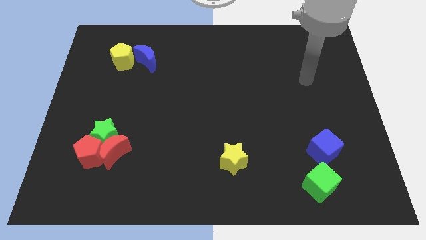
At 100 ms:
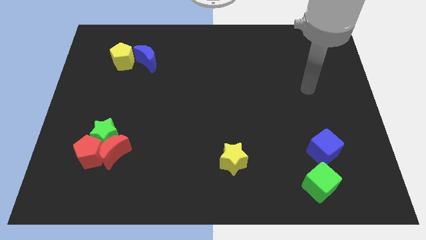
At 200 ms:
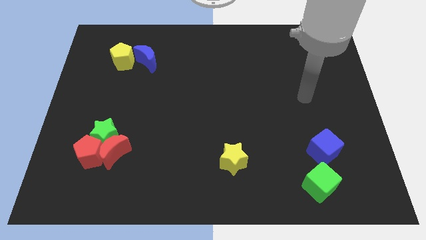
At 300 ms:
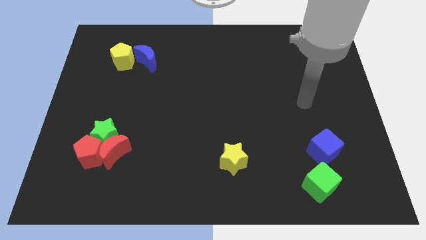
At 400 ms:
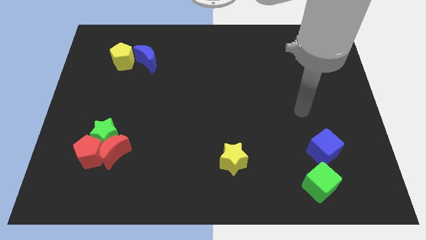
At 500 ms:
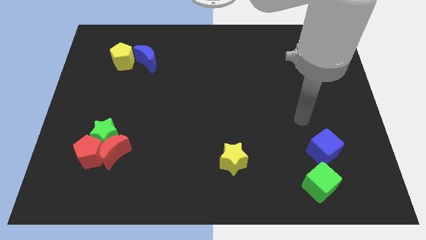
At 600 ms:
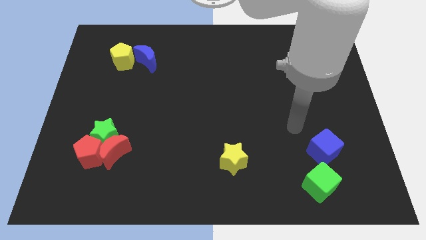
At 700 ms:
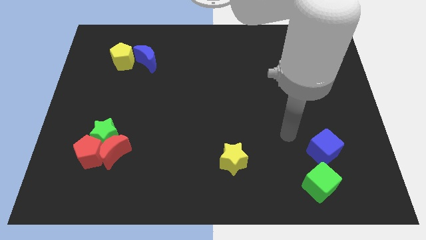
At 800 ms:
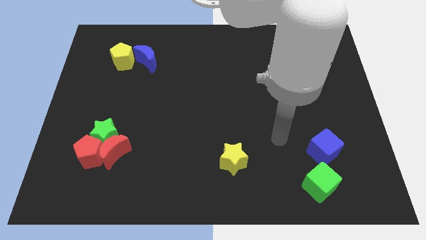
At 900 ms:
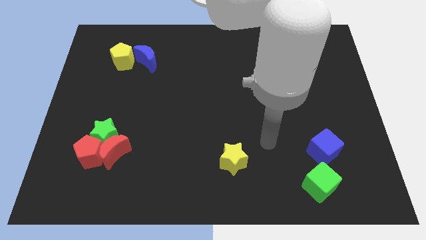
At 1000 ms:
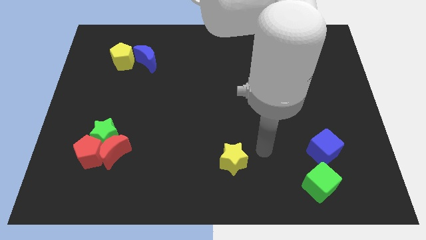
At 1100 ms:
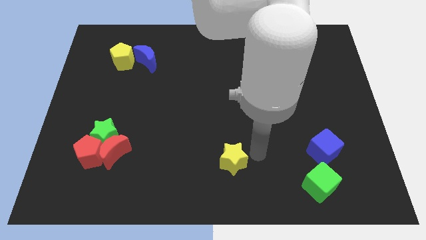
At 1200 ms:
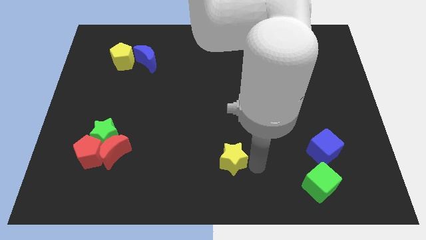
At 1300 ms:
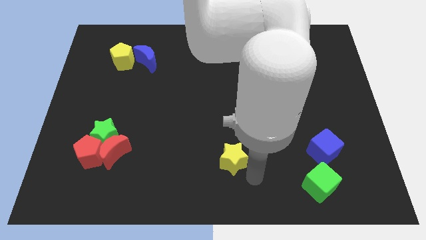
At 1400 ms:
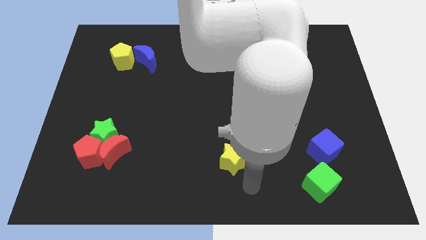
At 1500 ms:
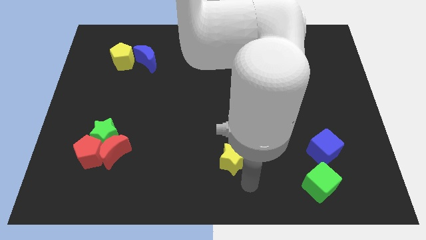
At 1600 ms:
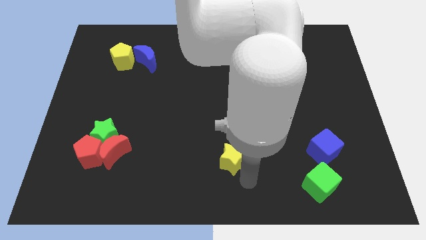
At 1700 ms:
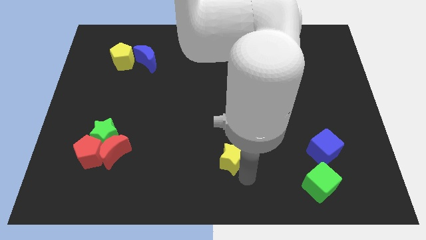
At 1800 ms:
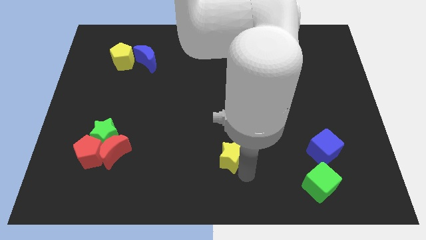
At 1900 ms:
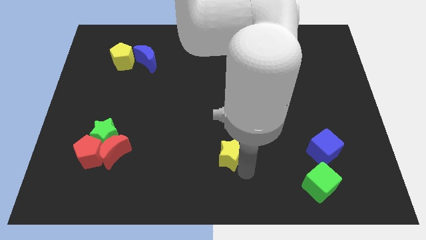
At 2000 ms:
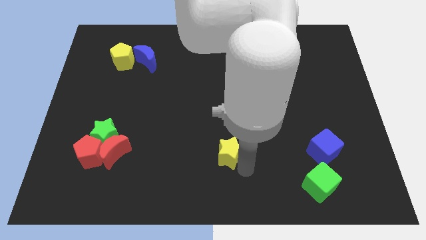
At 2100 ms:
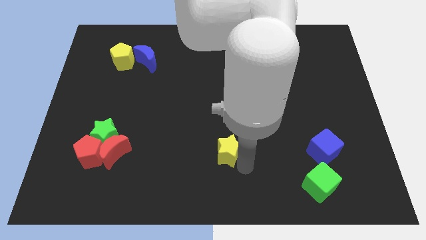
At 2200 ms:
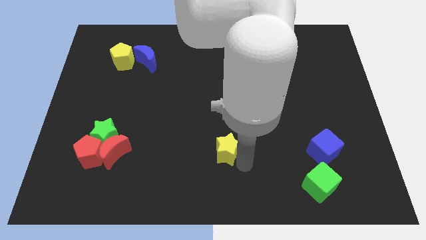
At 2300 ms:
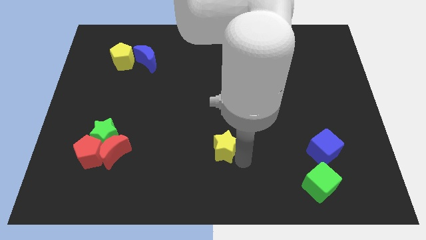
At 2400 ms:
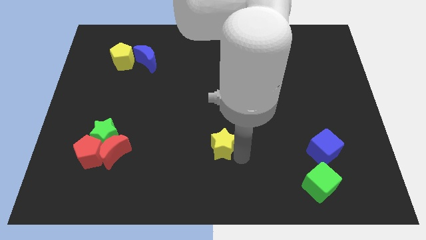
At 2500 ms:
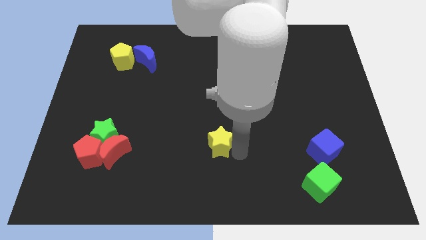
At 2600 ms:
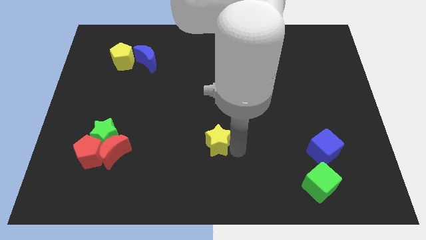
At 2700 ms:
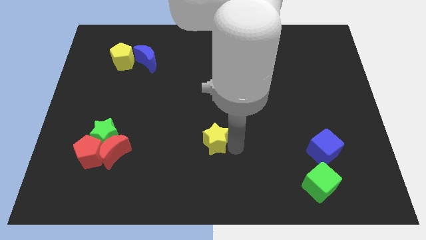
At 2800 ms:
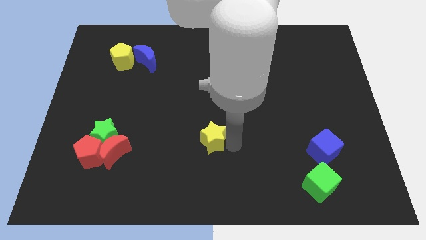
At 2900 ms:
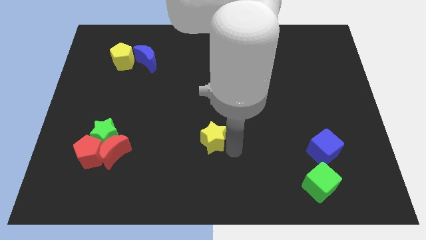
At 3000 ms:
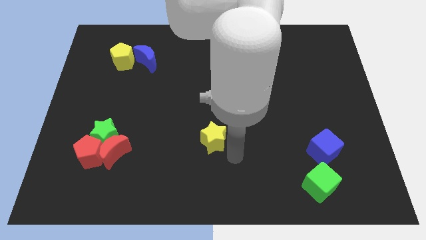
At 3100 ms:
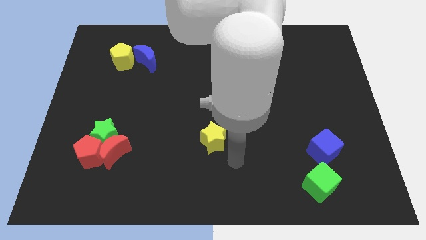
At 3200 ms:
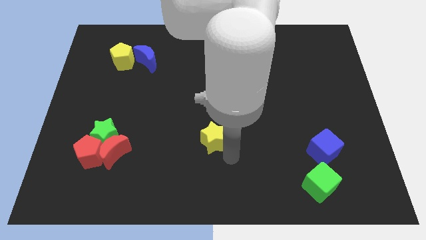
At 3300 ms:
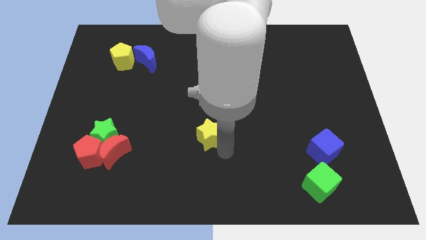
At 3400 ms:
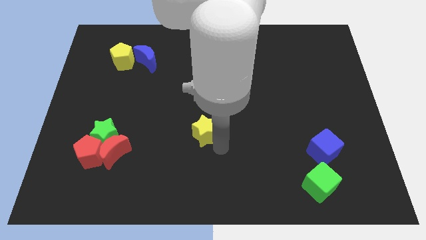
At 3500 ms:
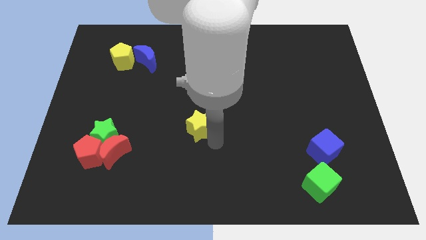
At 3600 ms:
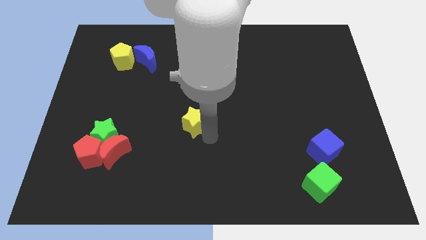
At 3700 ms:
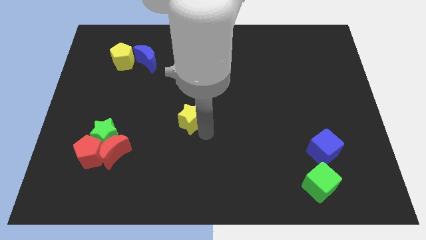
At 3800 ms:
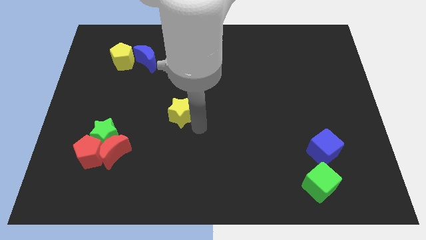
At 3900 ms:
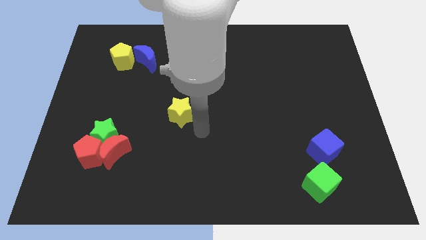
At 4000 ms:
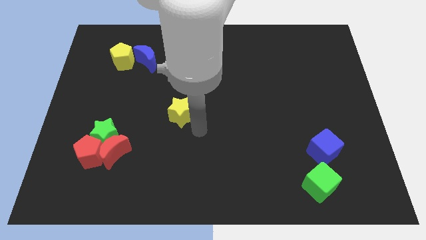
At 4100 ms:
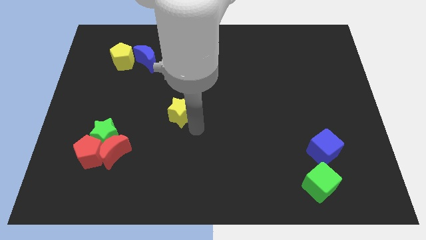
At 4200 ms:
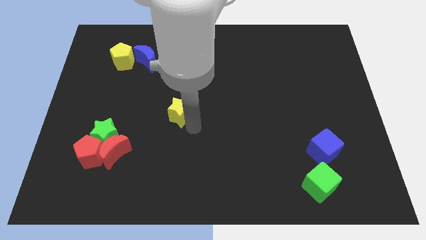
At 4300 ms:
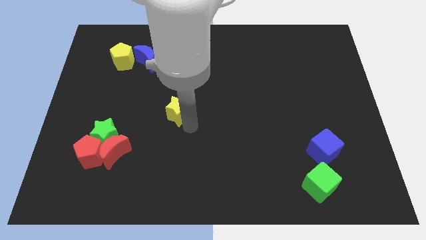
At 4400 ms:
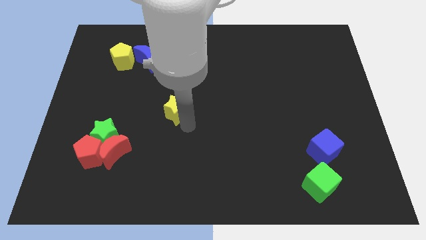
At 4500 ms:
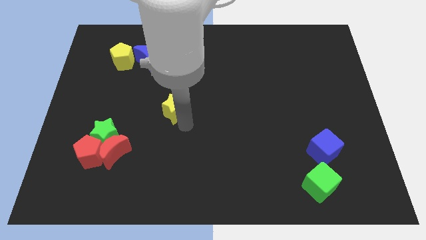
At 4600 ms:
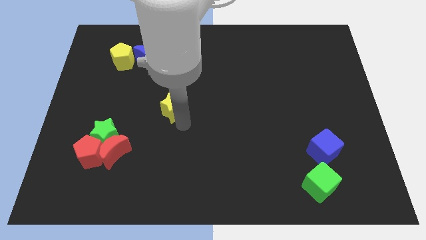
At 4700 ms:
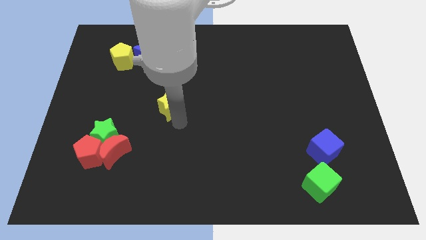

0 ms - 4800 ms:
push the yellow star upwards and then left

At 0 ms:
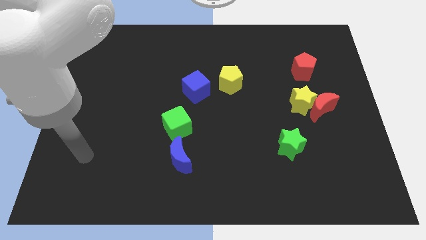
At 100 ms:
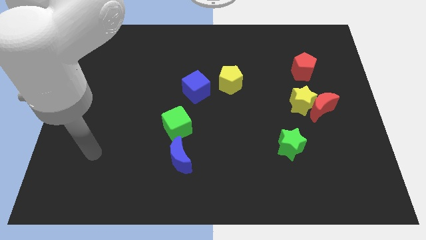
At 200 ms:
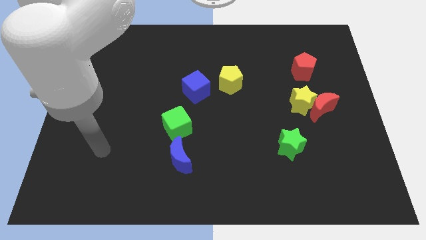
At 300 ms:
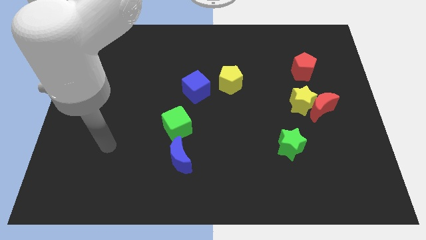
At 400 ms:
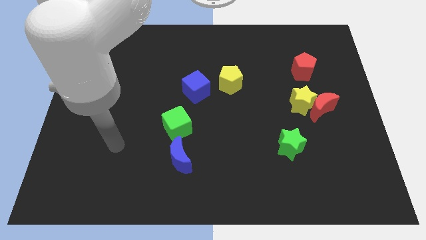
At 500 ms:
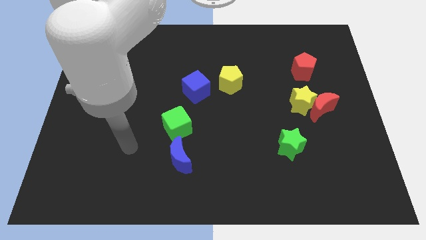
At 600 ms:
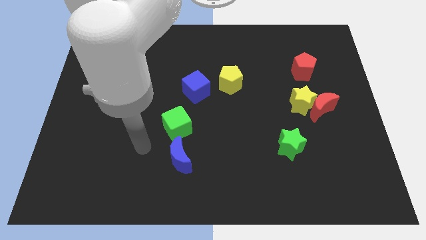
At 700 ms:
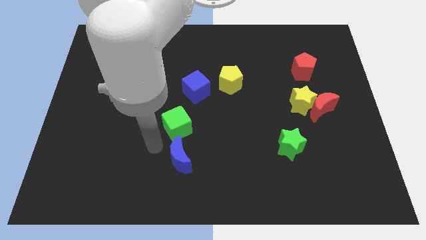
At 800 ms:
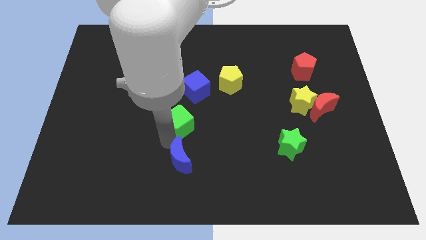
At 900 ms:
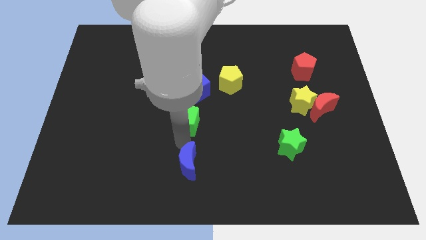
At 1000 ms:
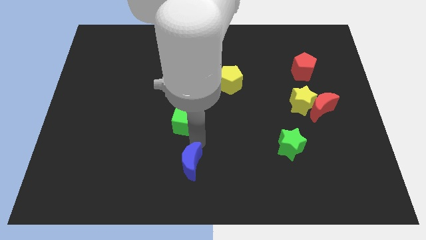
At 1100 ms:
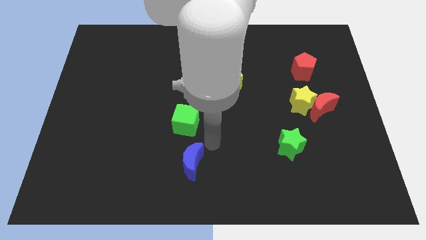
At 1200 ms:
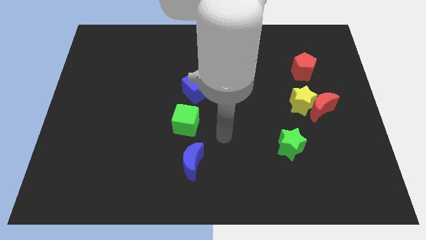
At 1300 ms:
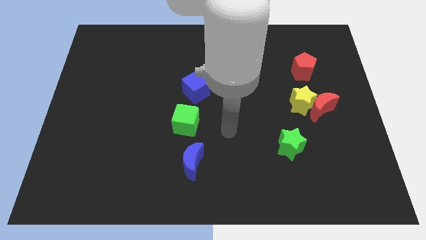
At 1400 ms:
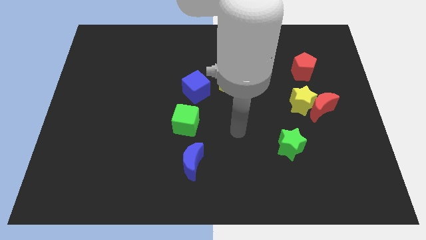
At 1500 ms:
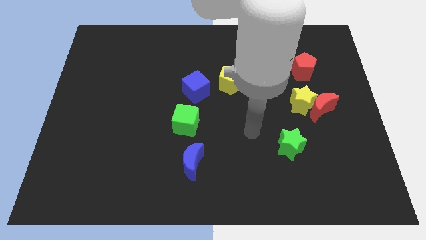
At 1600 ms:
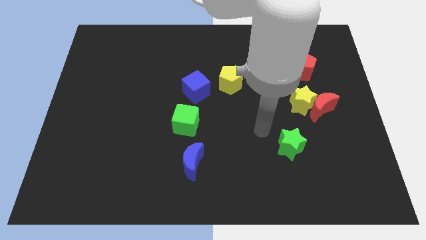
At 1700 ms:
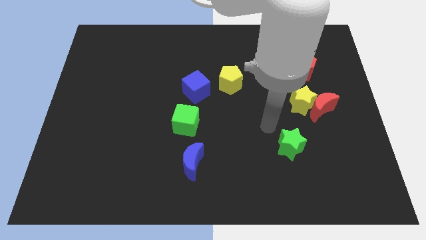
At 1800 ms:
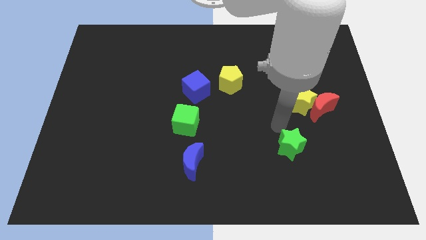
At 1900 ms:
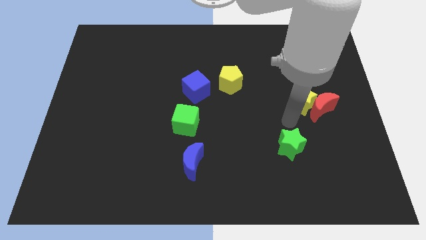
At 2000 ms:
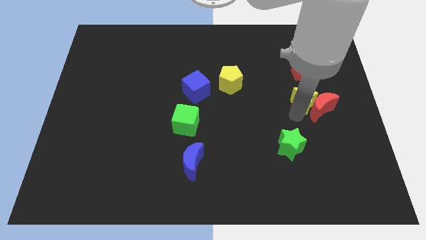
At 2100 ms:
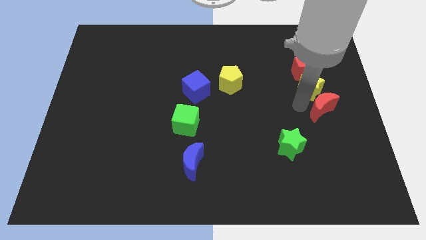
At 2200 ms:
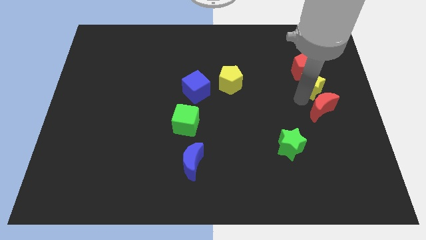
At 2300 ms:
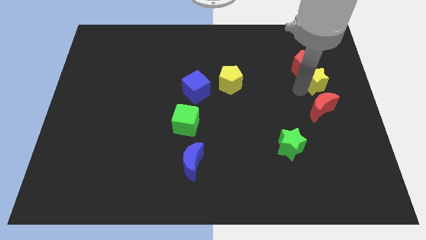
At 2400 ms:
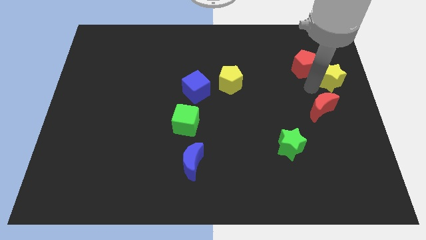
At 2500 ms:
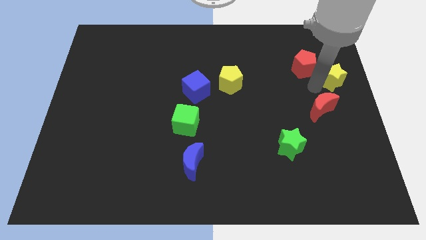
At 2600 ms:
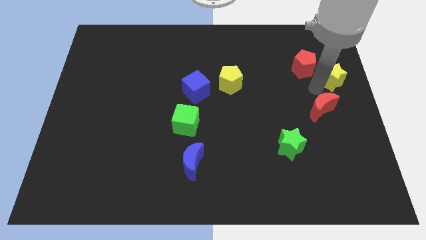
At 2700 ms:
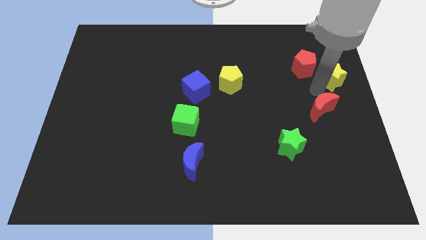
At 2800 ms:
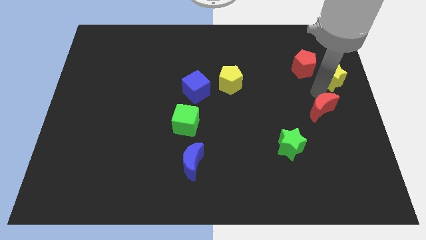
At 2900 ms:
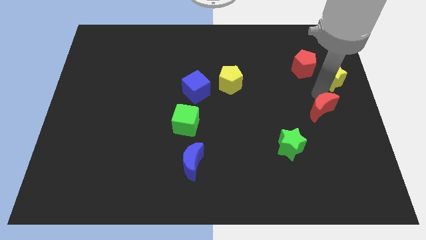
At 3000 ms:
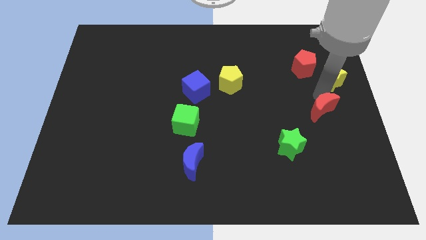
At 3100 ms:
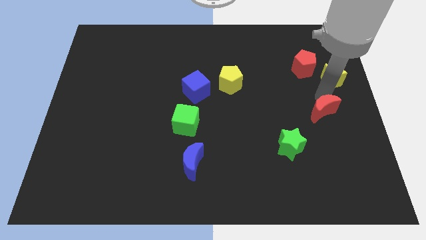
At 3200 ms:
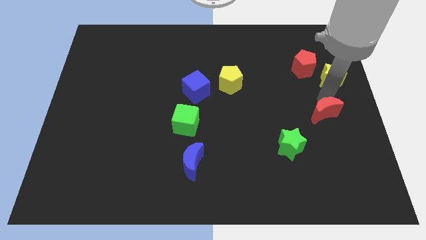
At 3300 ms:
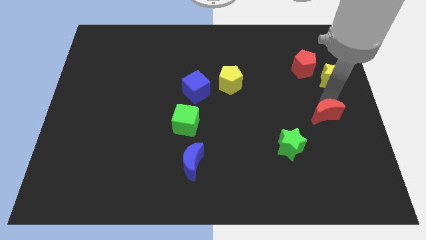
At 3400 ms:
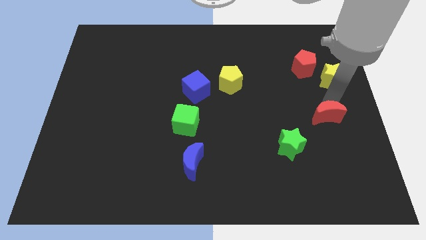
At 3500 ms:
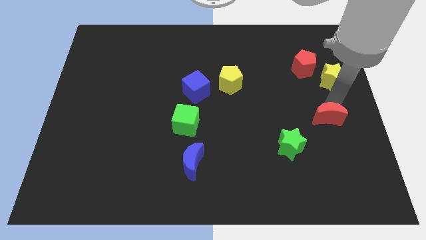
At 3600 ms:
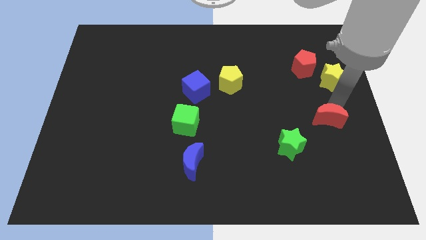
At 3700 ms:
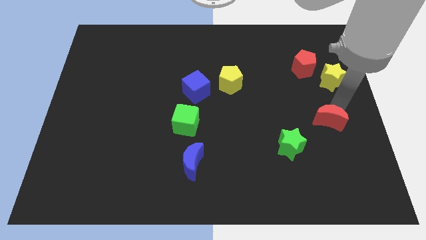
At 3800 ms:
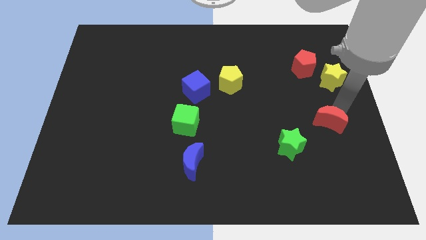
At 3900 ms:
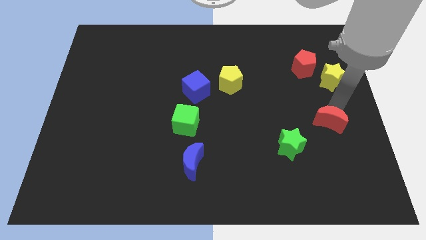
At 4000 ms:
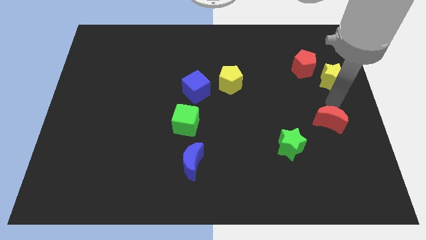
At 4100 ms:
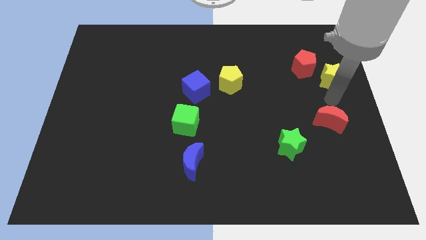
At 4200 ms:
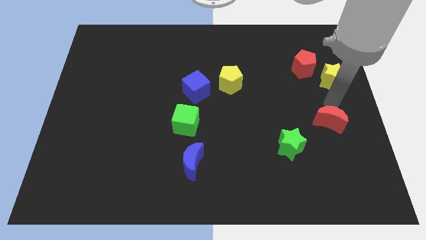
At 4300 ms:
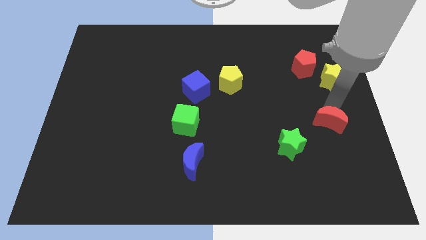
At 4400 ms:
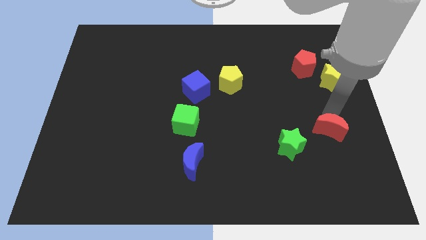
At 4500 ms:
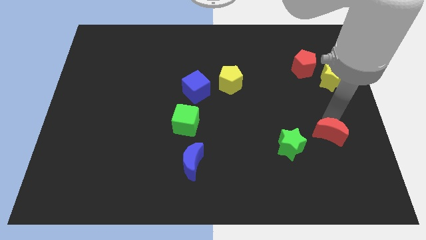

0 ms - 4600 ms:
move the red moon a little downwards
